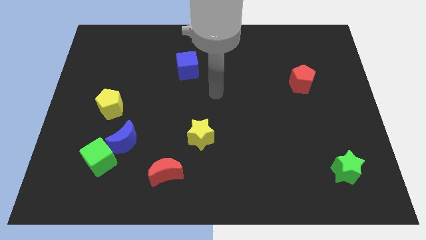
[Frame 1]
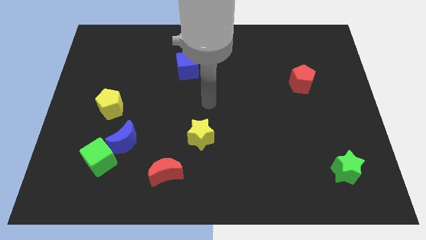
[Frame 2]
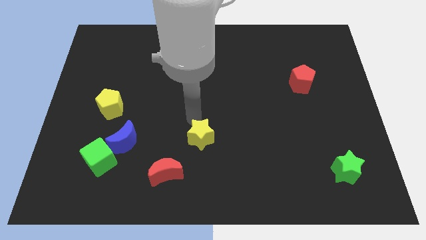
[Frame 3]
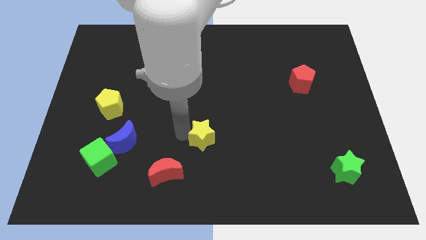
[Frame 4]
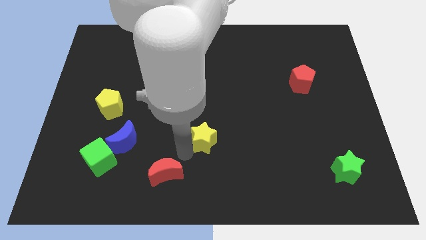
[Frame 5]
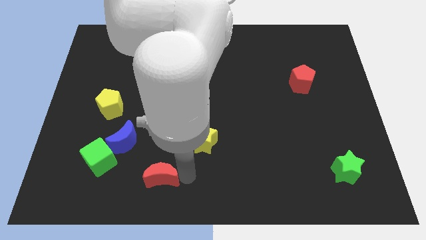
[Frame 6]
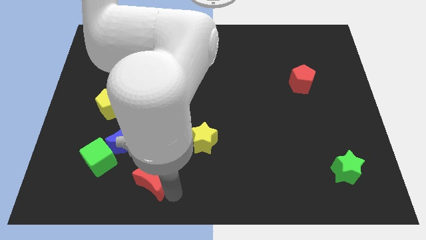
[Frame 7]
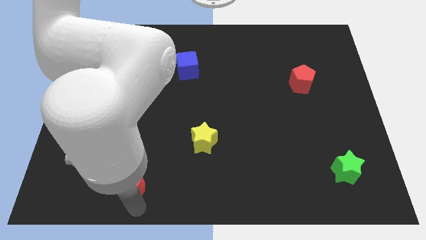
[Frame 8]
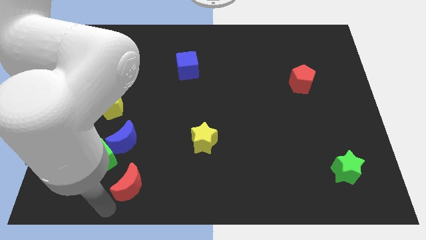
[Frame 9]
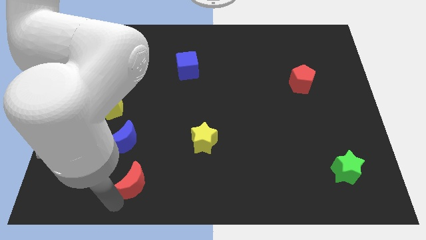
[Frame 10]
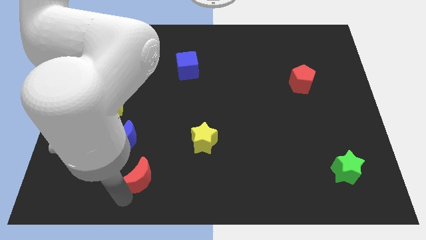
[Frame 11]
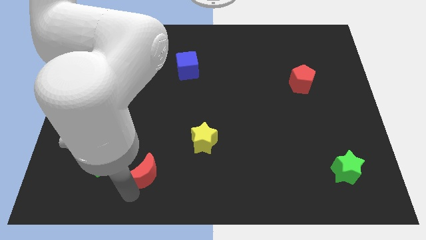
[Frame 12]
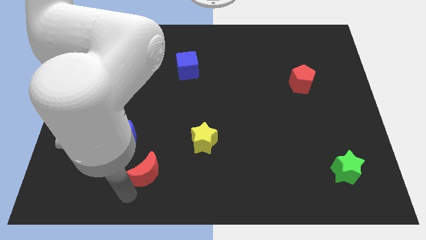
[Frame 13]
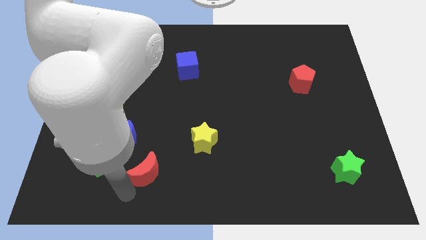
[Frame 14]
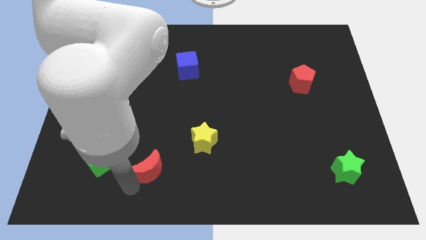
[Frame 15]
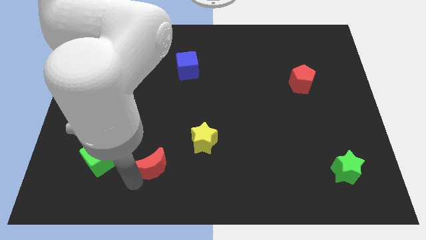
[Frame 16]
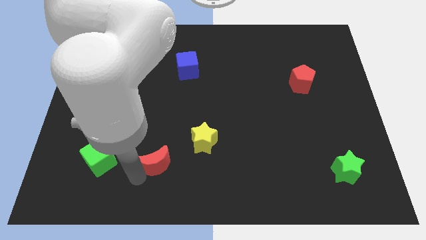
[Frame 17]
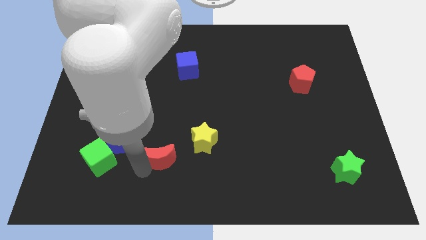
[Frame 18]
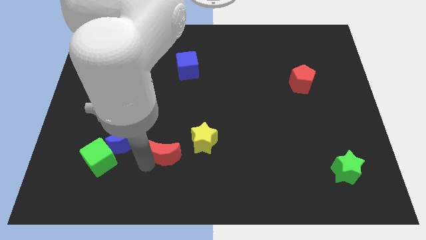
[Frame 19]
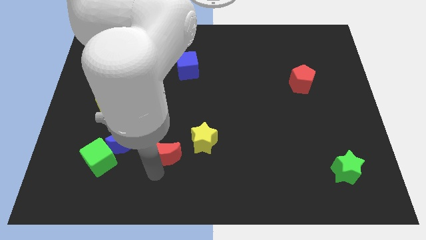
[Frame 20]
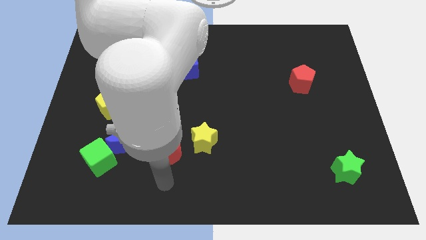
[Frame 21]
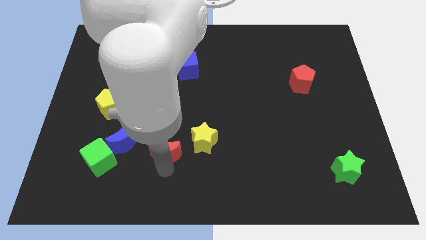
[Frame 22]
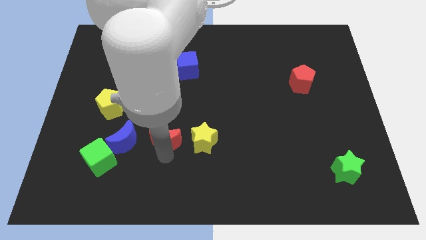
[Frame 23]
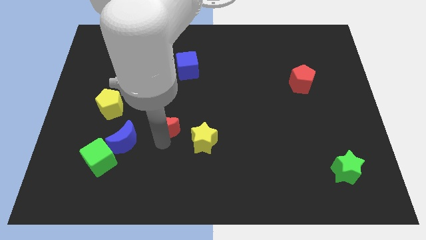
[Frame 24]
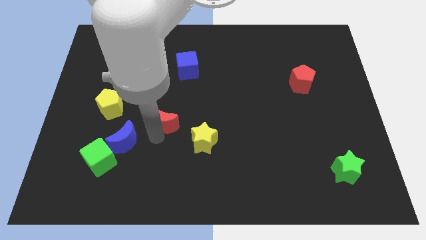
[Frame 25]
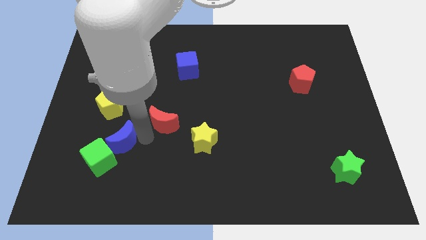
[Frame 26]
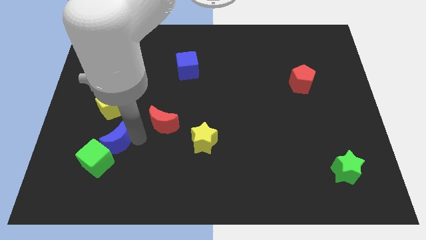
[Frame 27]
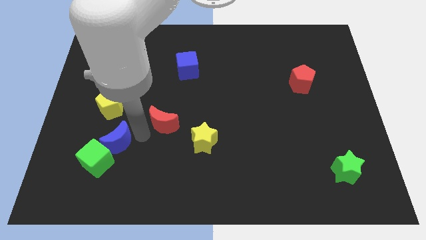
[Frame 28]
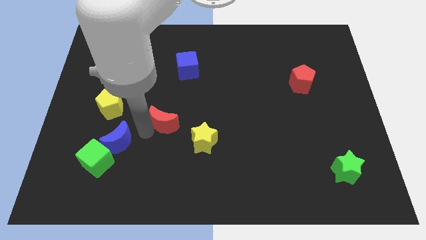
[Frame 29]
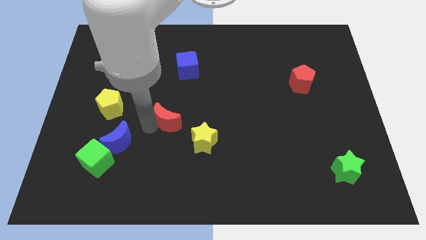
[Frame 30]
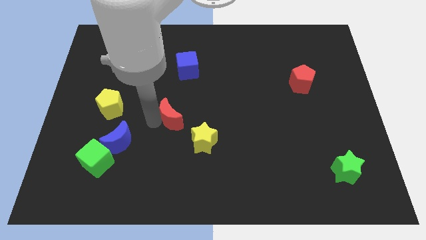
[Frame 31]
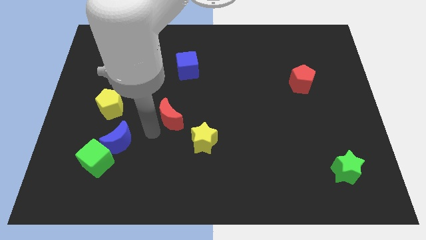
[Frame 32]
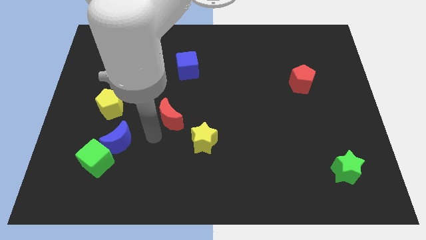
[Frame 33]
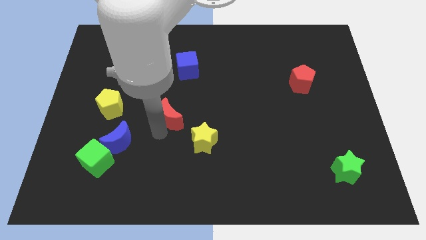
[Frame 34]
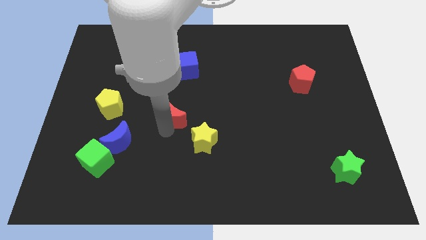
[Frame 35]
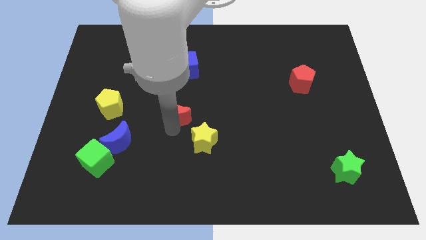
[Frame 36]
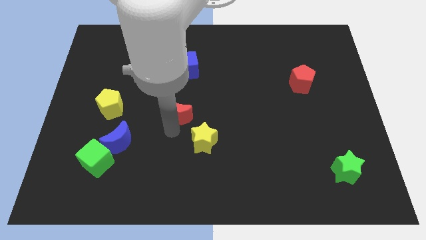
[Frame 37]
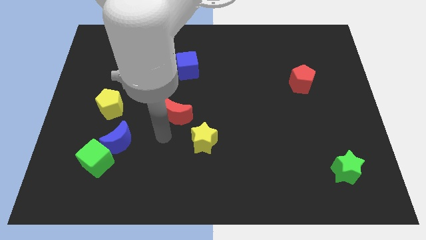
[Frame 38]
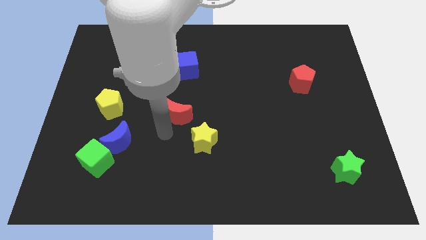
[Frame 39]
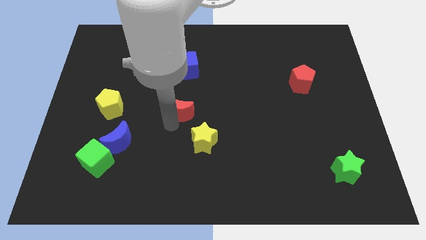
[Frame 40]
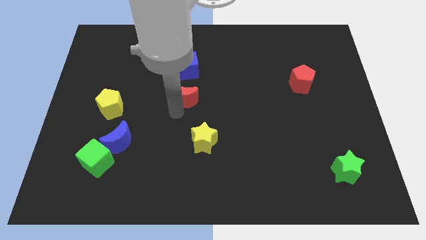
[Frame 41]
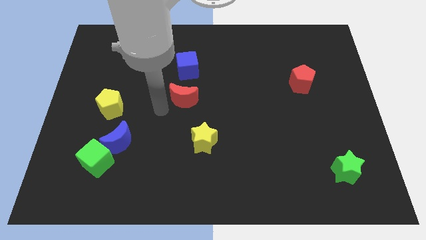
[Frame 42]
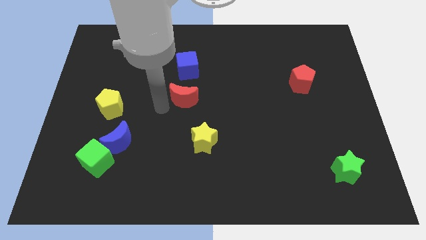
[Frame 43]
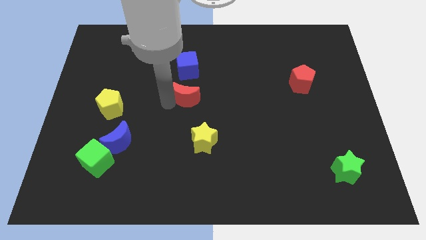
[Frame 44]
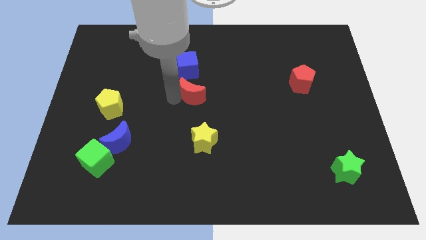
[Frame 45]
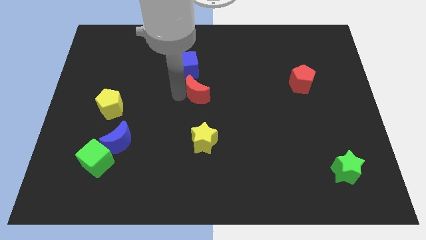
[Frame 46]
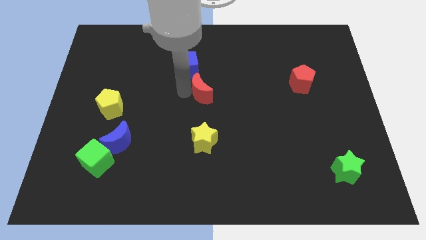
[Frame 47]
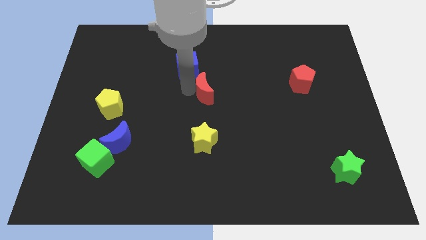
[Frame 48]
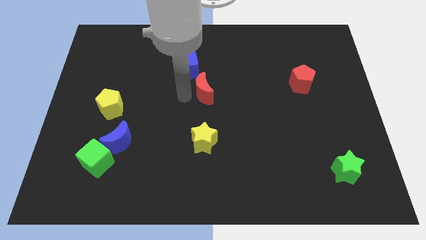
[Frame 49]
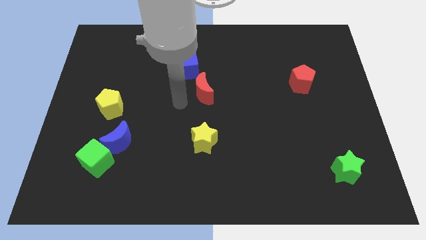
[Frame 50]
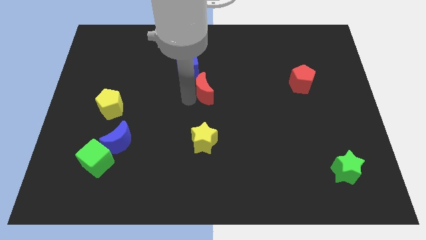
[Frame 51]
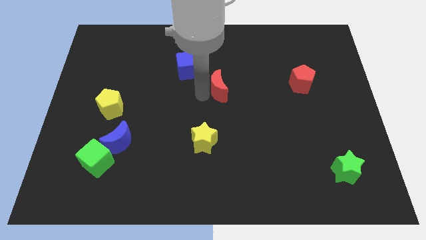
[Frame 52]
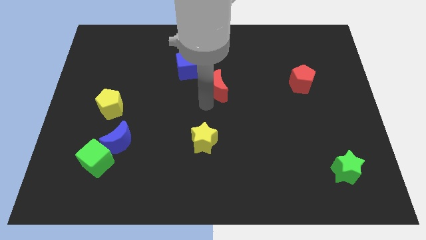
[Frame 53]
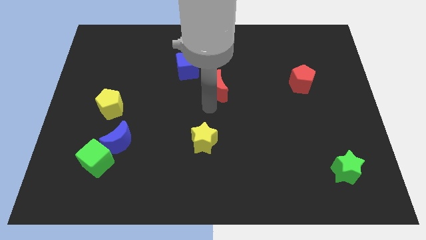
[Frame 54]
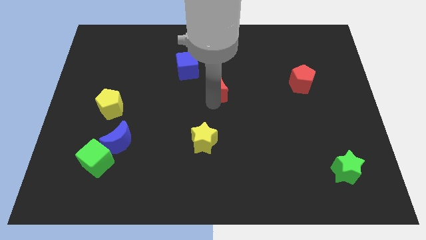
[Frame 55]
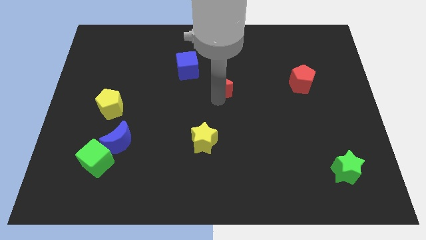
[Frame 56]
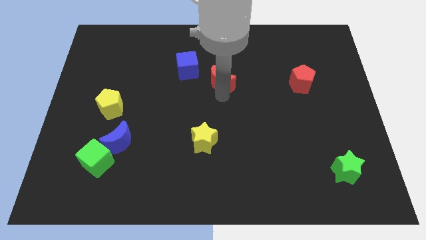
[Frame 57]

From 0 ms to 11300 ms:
push the red moon just right of the blue cube

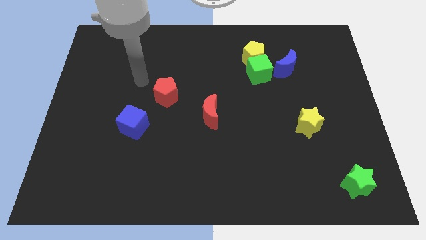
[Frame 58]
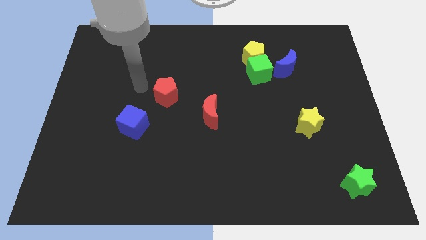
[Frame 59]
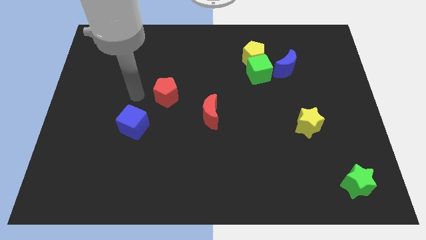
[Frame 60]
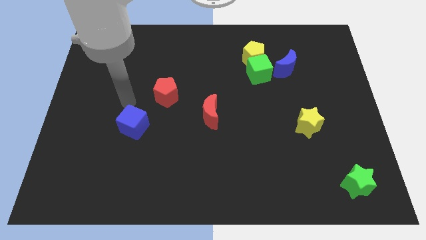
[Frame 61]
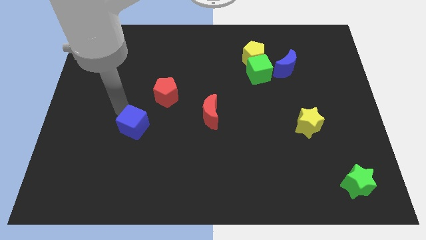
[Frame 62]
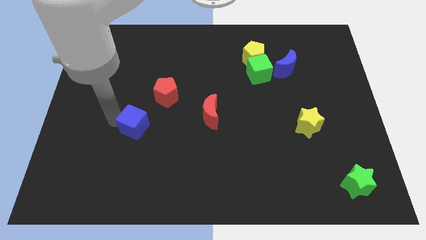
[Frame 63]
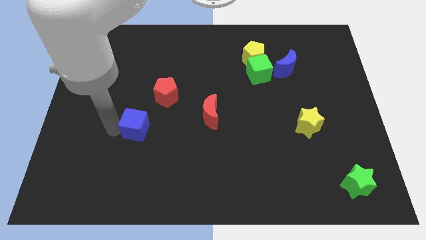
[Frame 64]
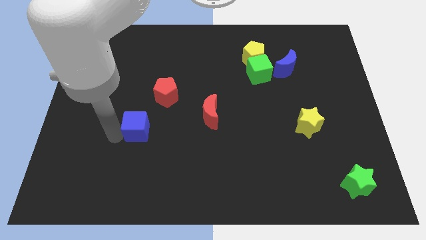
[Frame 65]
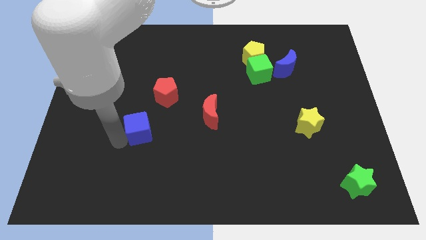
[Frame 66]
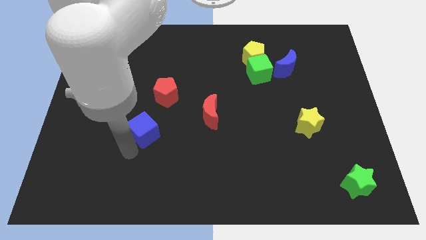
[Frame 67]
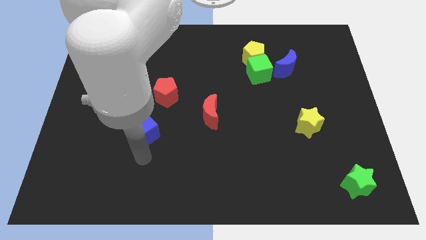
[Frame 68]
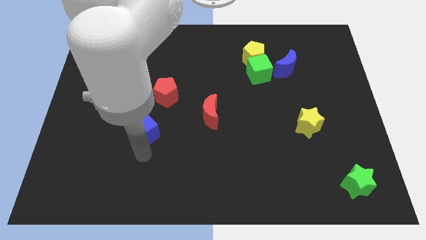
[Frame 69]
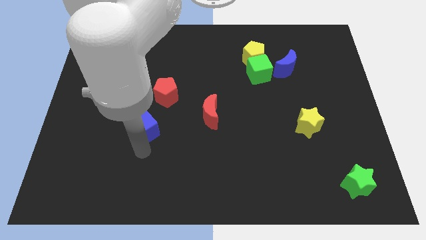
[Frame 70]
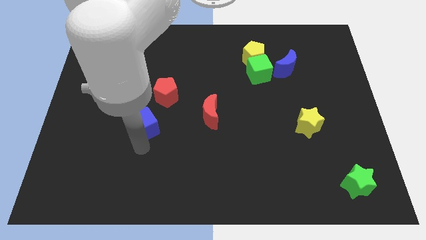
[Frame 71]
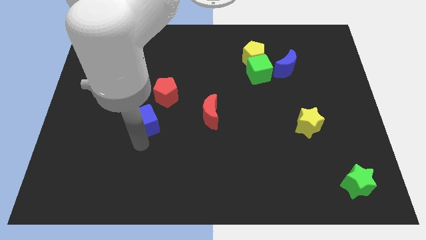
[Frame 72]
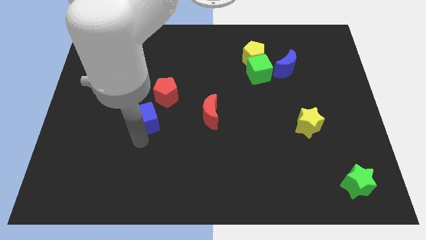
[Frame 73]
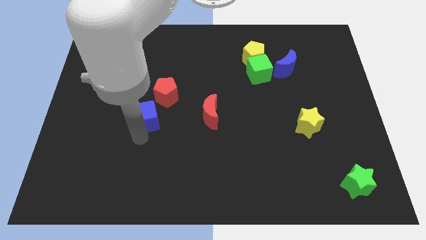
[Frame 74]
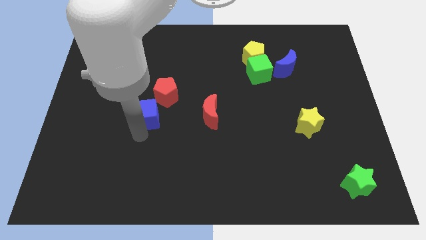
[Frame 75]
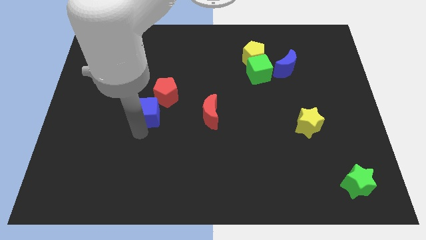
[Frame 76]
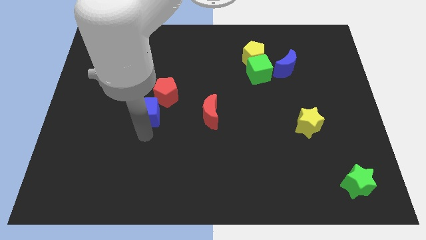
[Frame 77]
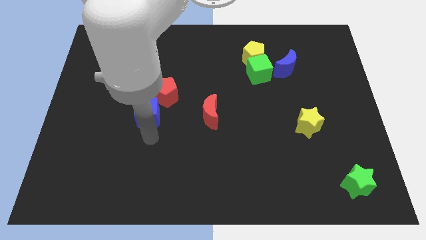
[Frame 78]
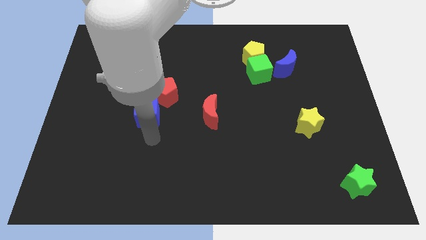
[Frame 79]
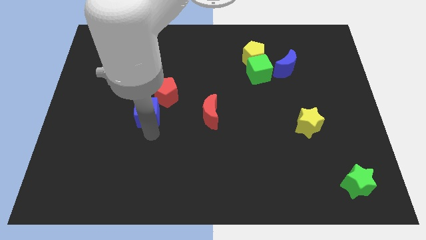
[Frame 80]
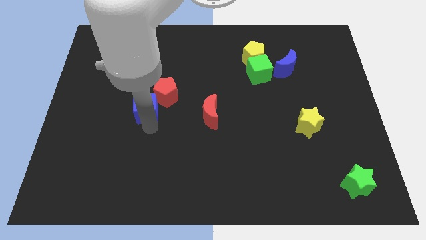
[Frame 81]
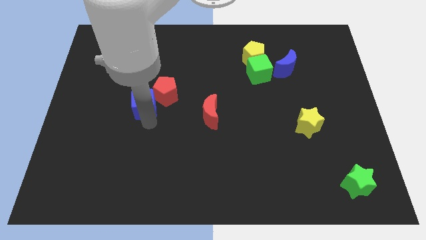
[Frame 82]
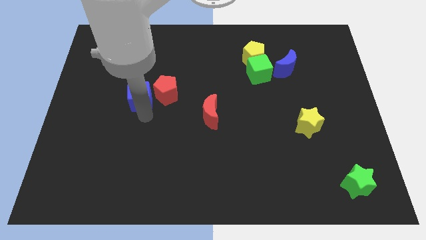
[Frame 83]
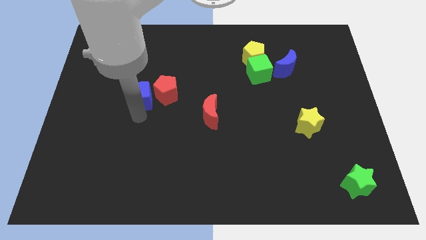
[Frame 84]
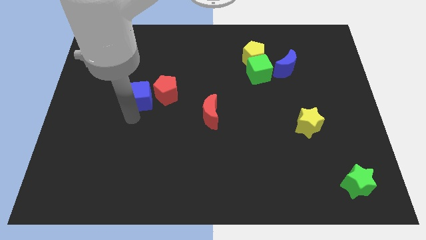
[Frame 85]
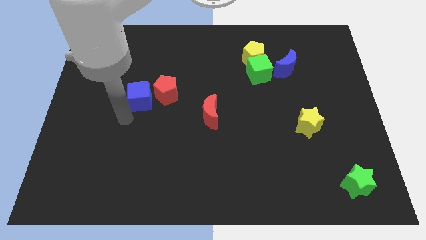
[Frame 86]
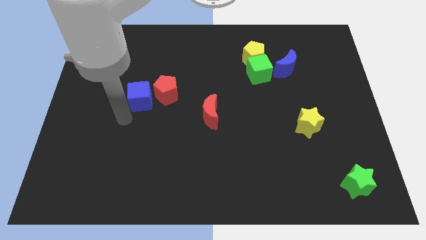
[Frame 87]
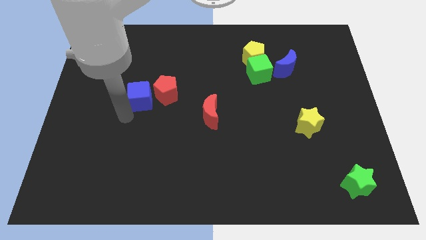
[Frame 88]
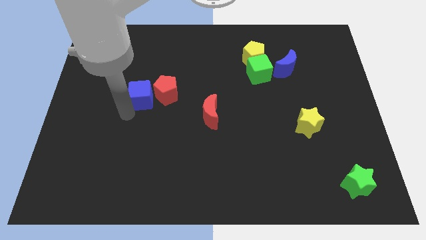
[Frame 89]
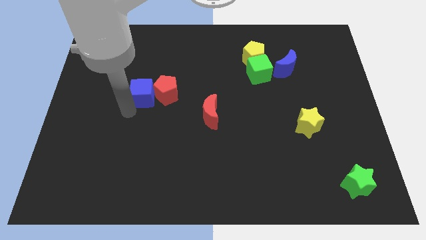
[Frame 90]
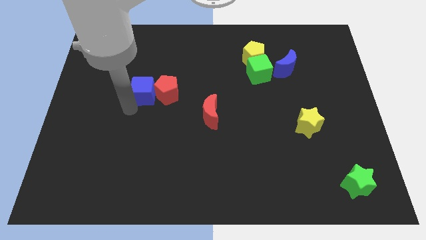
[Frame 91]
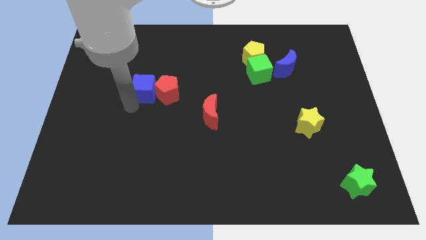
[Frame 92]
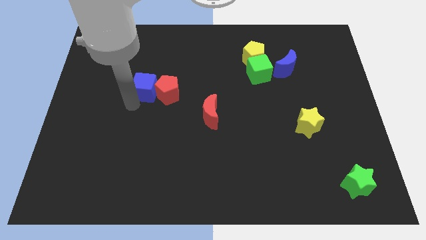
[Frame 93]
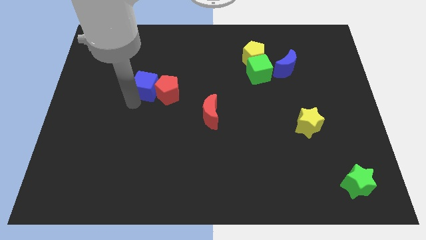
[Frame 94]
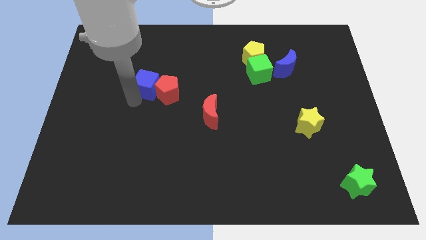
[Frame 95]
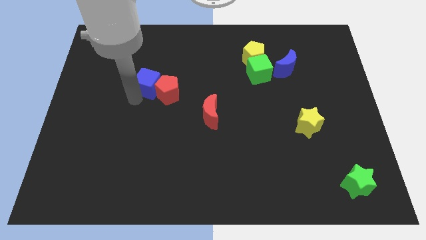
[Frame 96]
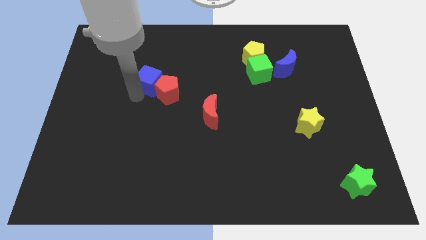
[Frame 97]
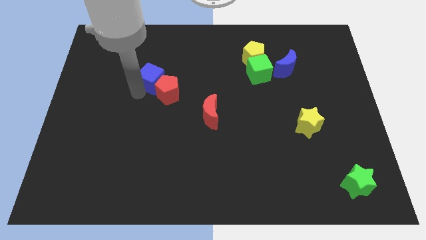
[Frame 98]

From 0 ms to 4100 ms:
push the blue cube to the top side of the red pentagon
